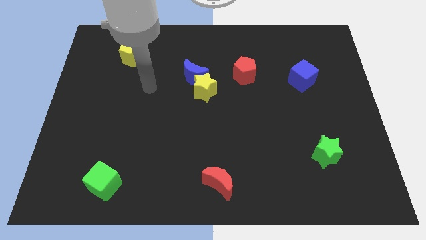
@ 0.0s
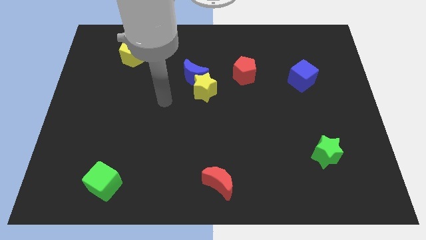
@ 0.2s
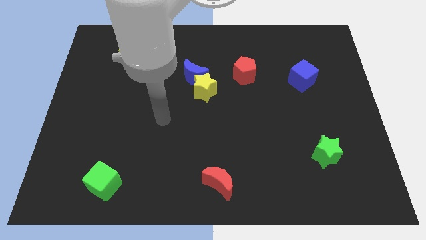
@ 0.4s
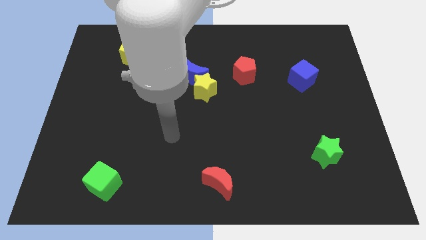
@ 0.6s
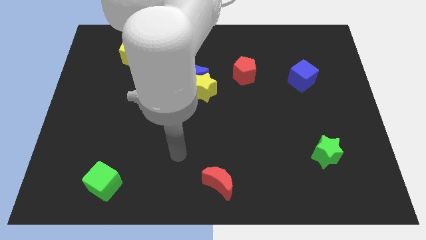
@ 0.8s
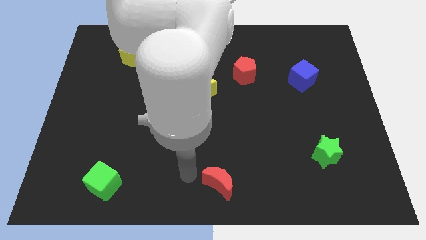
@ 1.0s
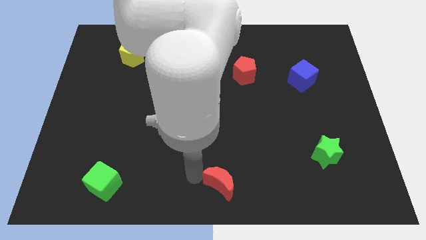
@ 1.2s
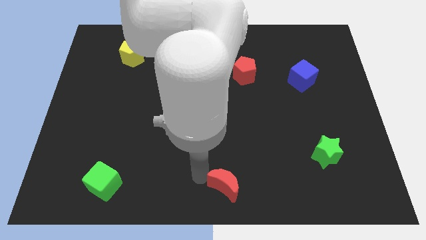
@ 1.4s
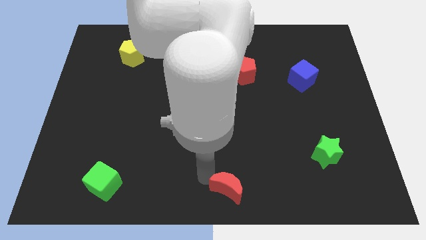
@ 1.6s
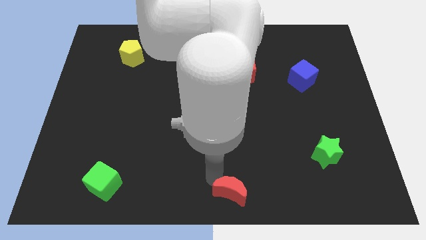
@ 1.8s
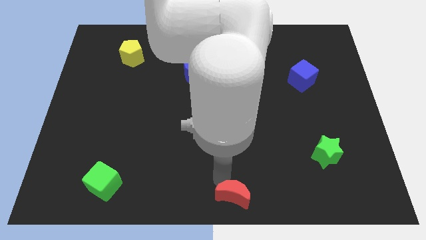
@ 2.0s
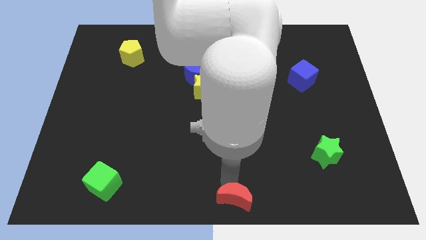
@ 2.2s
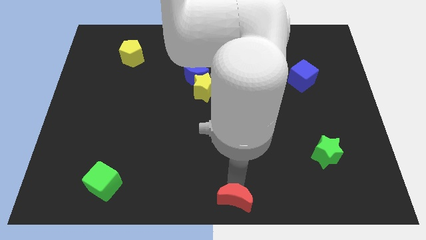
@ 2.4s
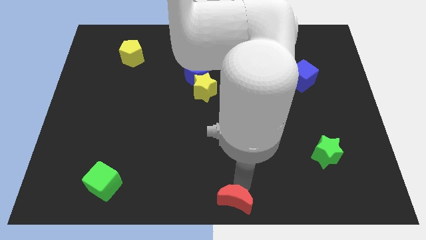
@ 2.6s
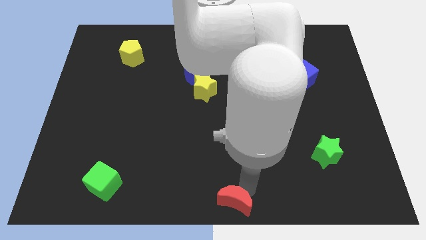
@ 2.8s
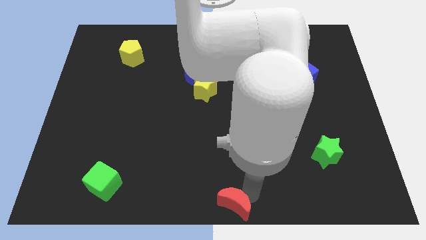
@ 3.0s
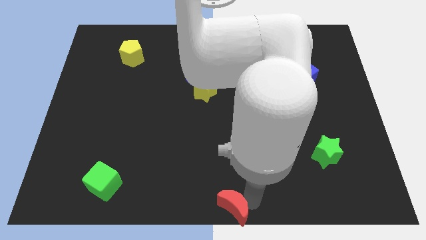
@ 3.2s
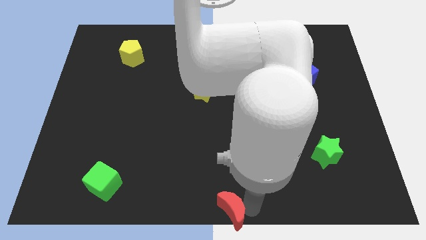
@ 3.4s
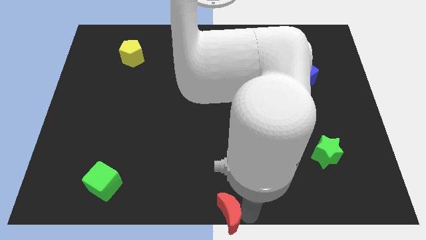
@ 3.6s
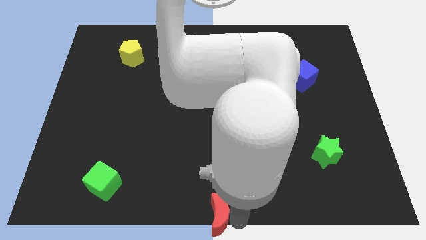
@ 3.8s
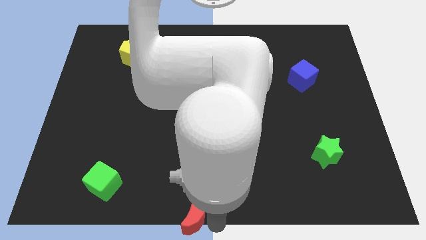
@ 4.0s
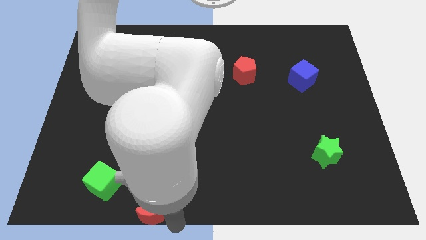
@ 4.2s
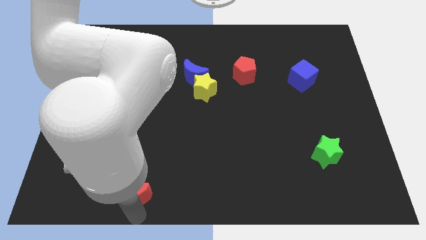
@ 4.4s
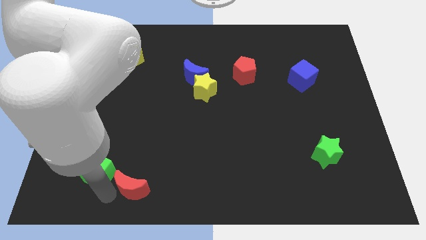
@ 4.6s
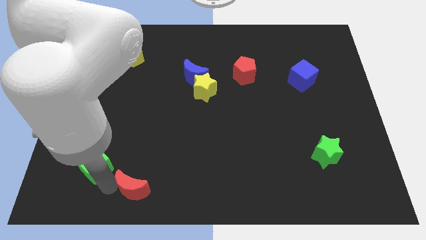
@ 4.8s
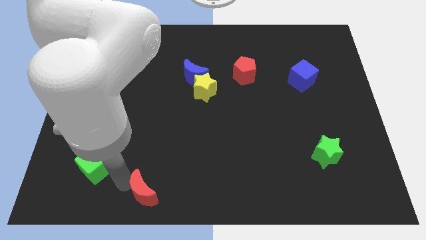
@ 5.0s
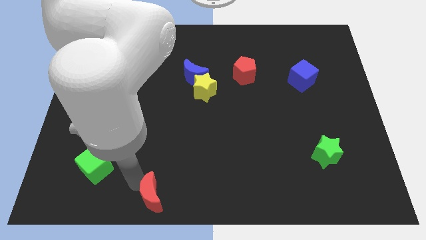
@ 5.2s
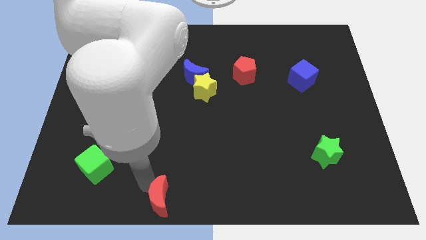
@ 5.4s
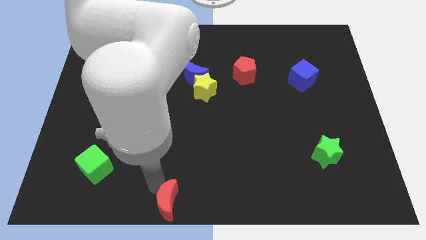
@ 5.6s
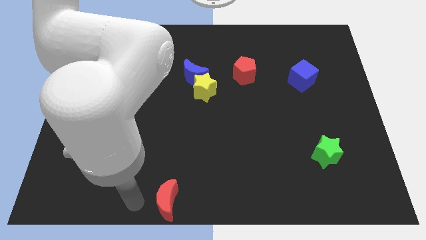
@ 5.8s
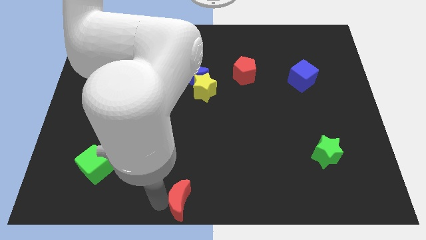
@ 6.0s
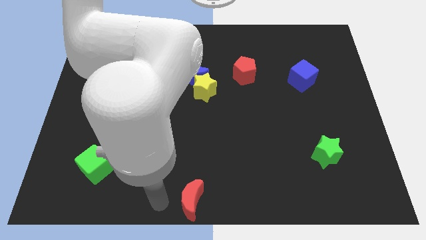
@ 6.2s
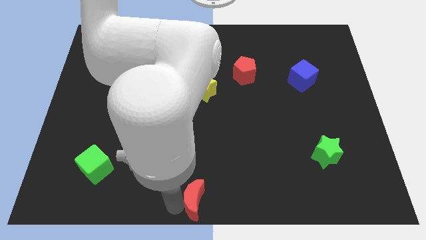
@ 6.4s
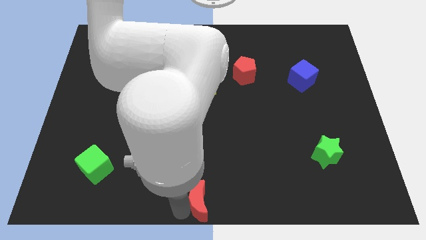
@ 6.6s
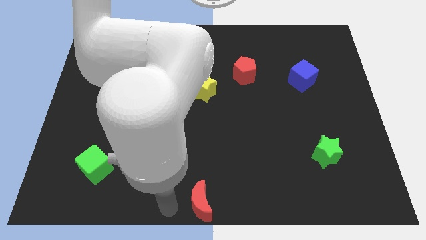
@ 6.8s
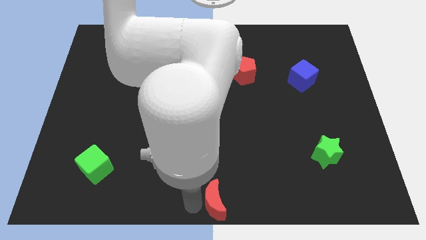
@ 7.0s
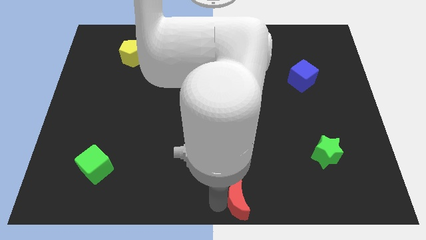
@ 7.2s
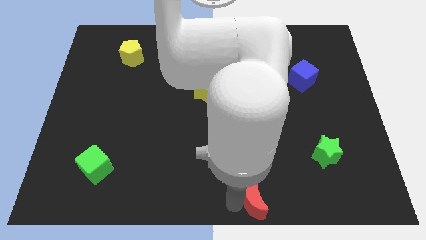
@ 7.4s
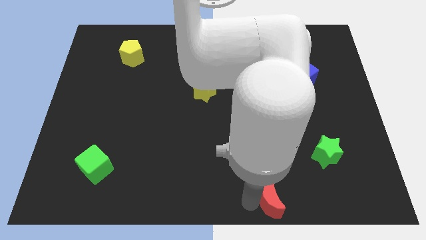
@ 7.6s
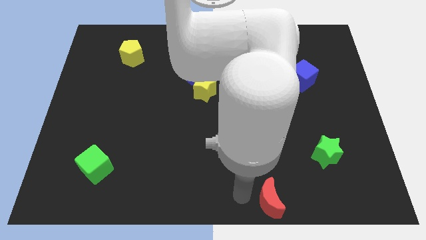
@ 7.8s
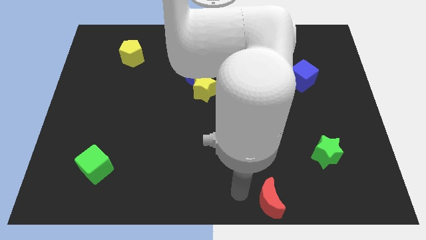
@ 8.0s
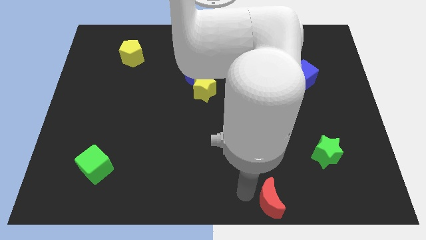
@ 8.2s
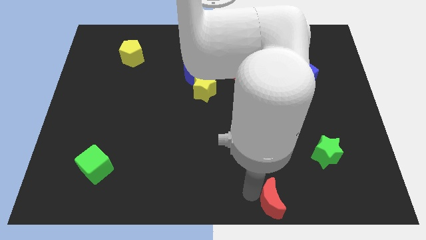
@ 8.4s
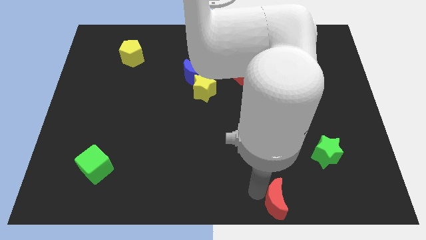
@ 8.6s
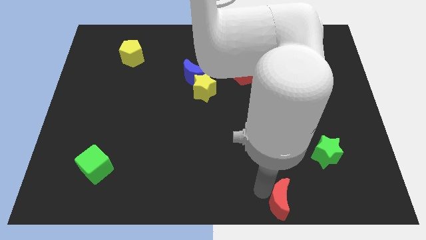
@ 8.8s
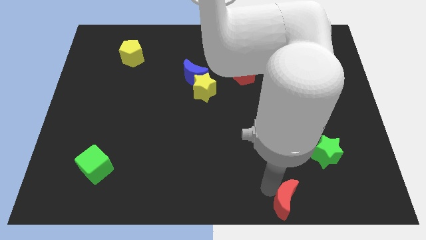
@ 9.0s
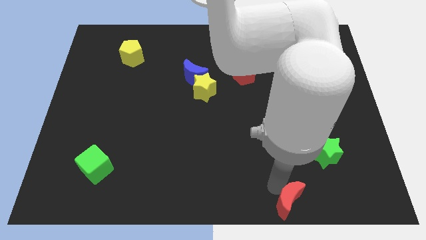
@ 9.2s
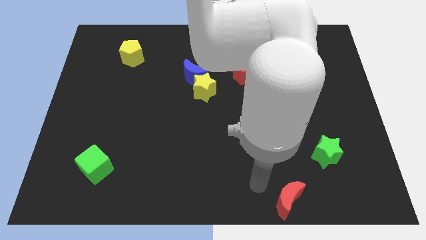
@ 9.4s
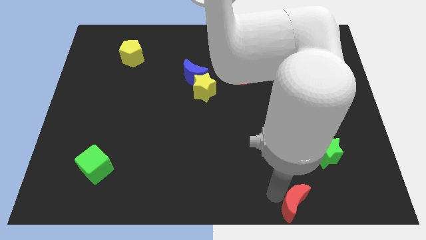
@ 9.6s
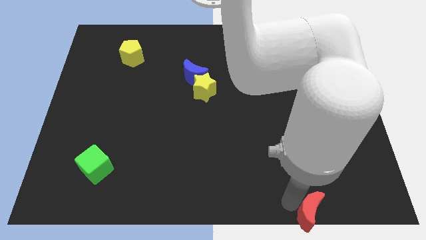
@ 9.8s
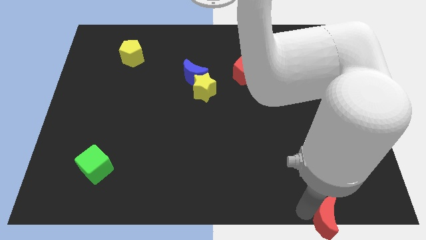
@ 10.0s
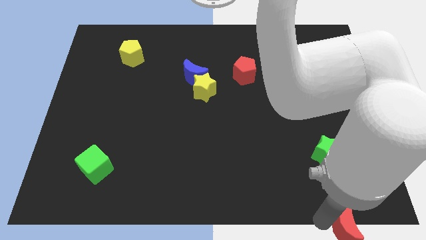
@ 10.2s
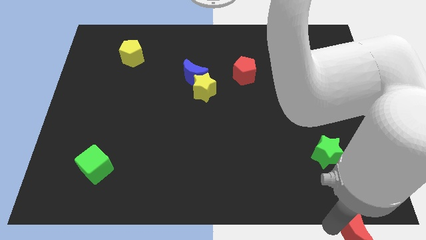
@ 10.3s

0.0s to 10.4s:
put the red moon to the bottom right corner

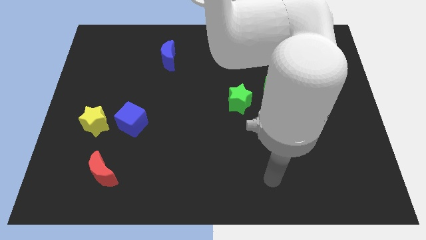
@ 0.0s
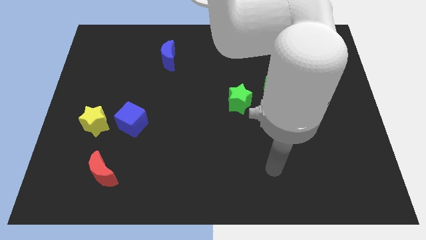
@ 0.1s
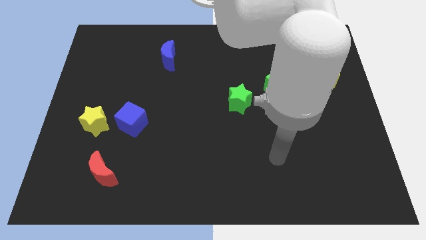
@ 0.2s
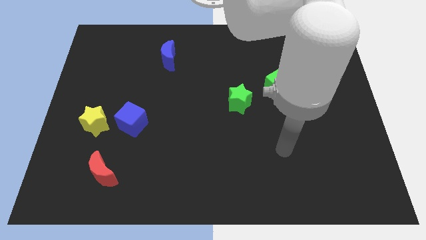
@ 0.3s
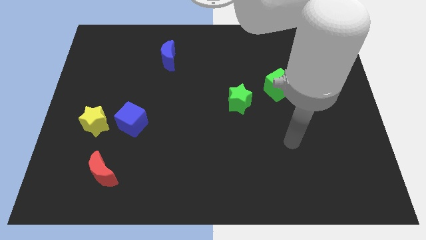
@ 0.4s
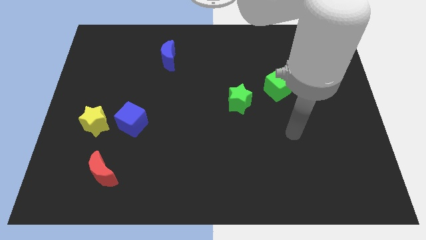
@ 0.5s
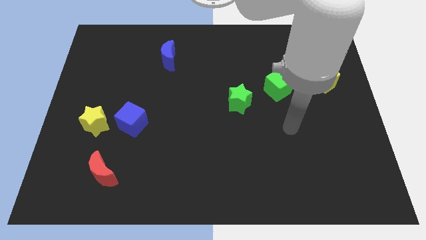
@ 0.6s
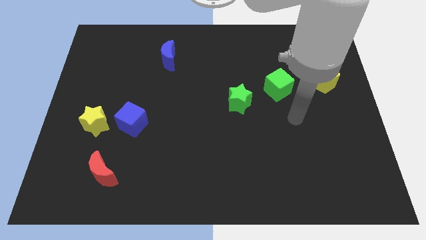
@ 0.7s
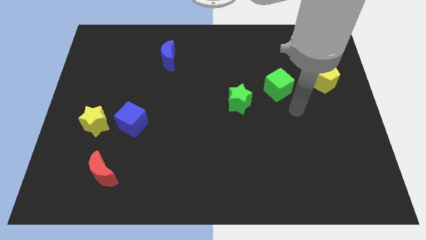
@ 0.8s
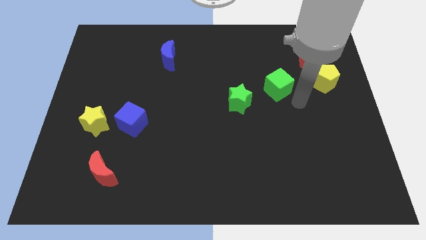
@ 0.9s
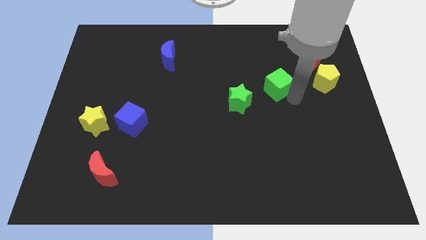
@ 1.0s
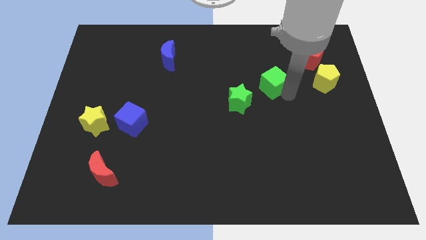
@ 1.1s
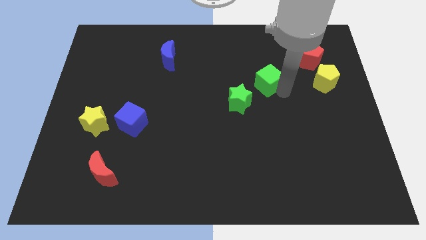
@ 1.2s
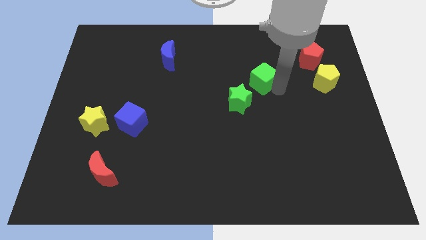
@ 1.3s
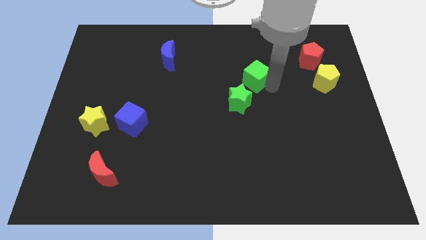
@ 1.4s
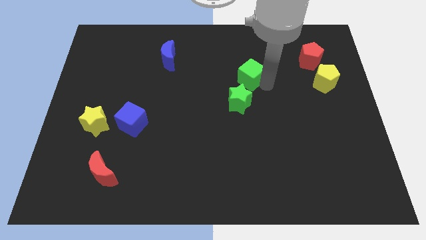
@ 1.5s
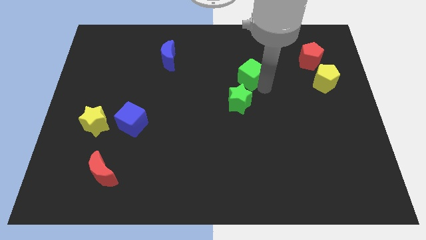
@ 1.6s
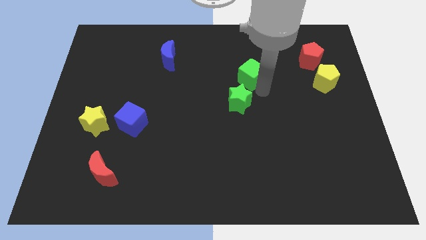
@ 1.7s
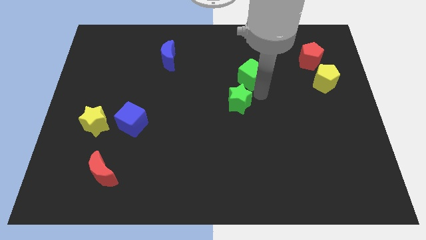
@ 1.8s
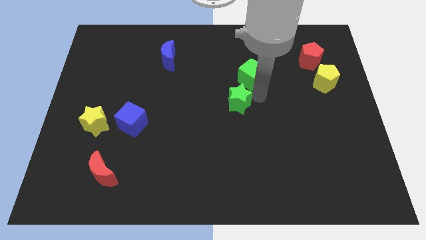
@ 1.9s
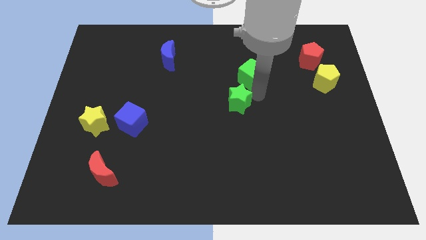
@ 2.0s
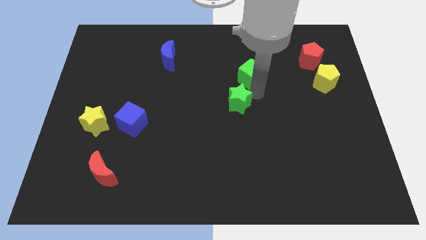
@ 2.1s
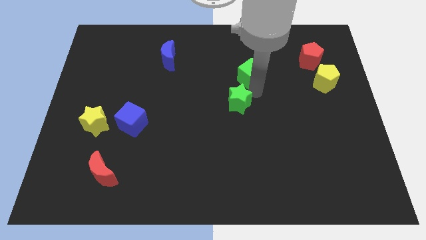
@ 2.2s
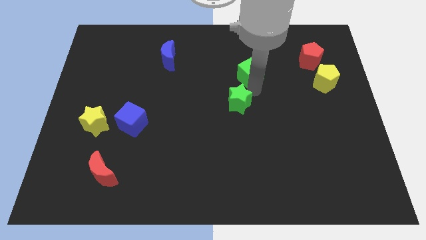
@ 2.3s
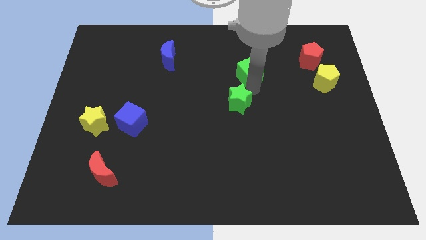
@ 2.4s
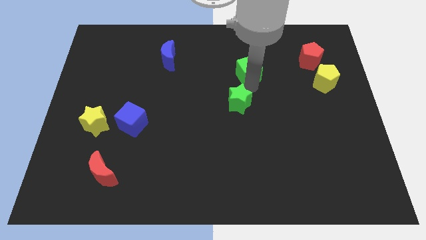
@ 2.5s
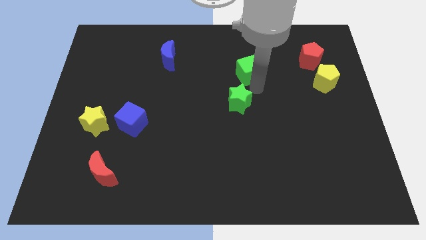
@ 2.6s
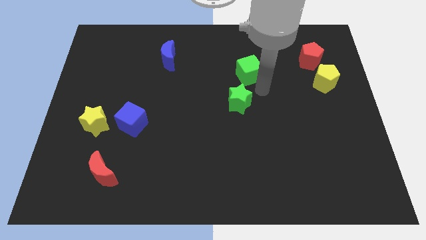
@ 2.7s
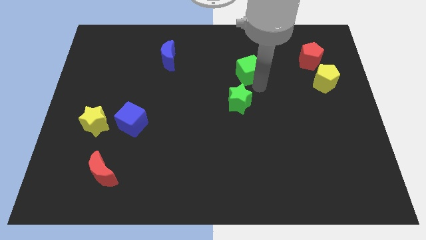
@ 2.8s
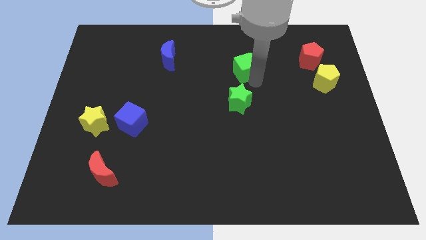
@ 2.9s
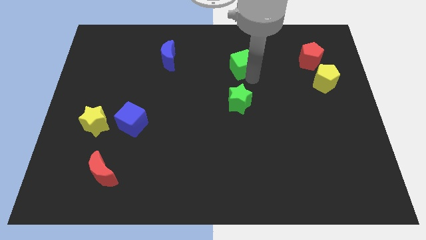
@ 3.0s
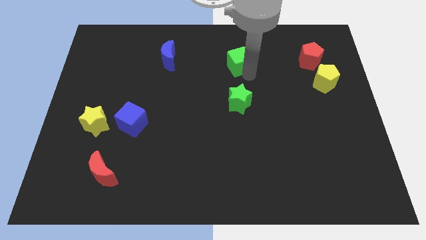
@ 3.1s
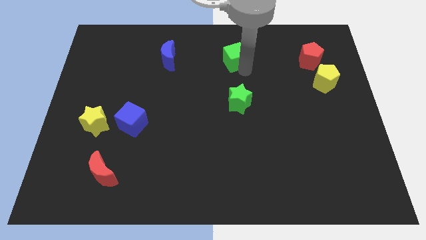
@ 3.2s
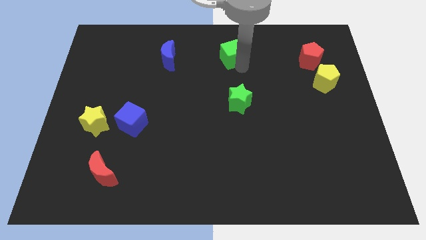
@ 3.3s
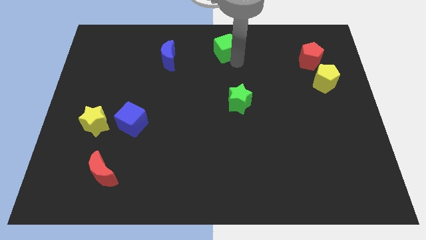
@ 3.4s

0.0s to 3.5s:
move the green cube to the towards your base
